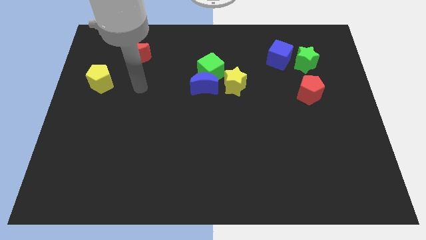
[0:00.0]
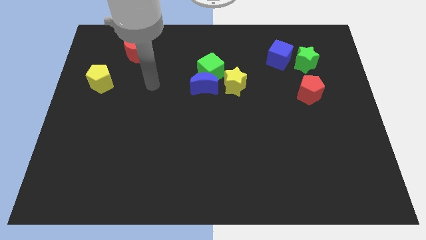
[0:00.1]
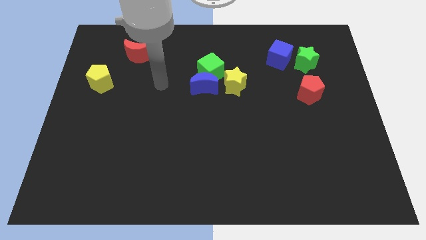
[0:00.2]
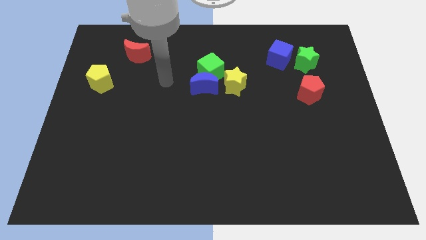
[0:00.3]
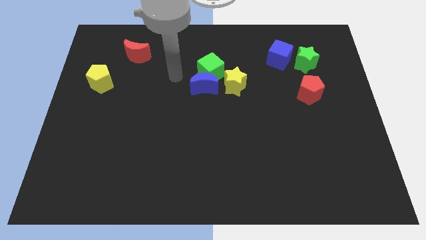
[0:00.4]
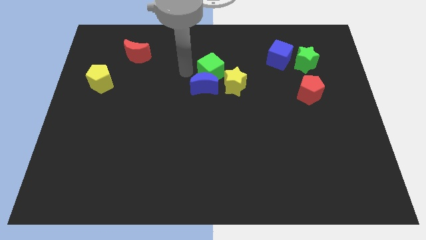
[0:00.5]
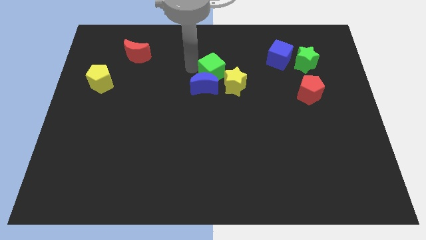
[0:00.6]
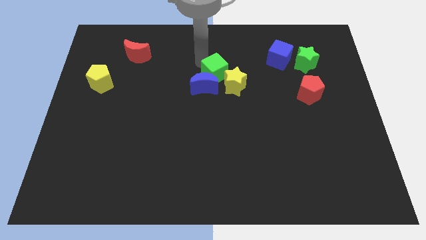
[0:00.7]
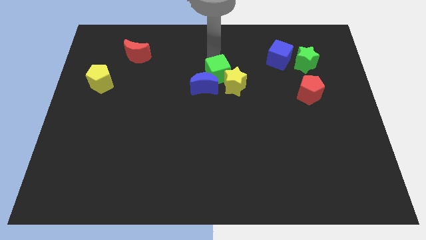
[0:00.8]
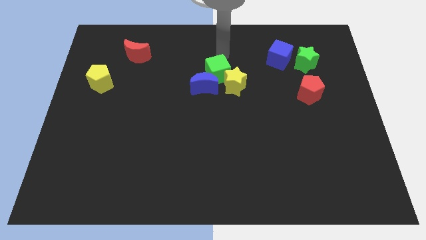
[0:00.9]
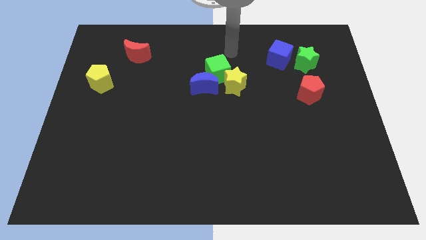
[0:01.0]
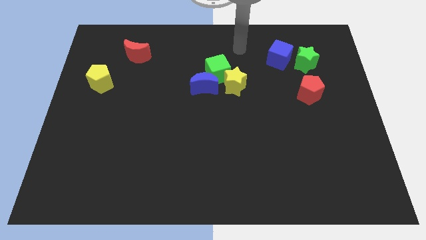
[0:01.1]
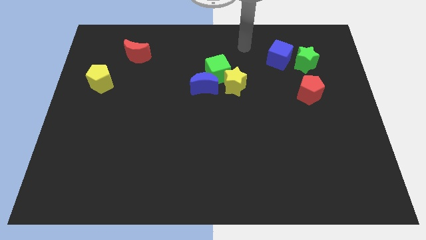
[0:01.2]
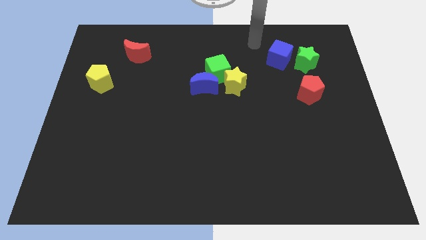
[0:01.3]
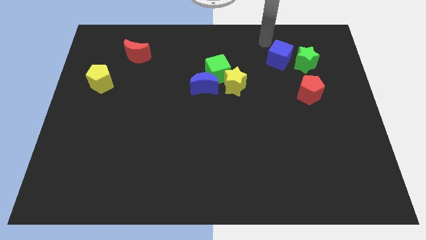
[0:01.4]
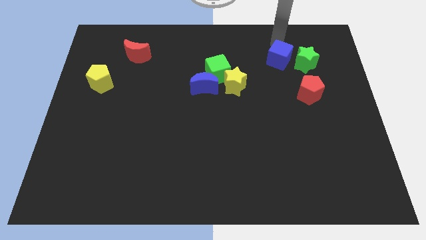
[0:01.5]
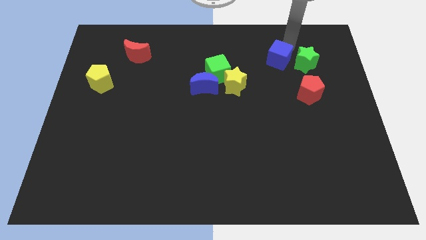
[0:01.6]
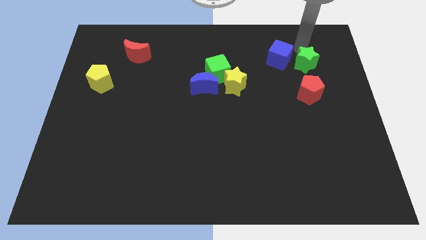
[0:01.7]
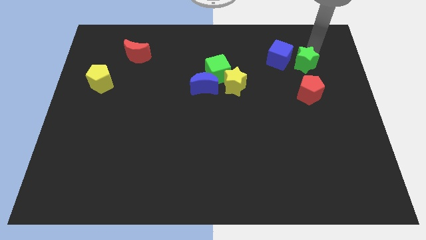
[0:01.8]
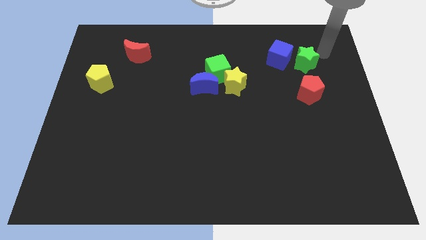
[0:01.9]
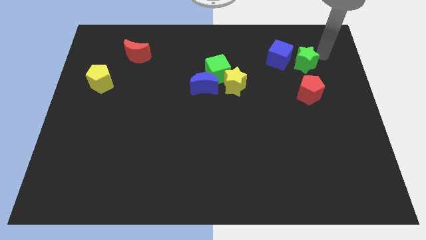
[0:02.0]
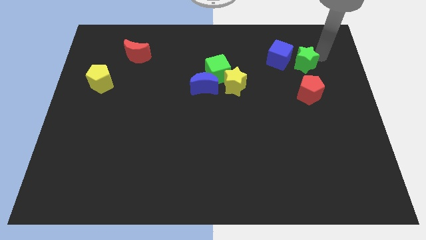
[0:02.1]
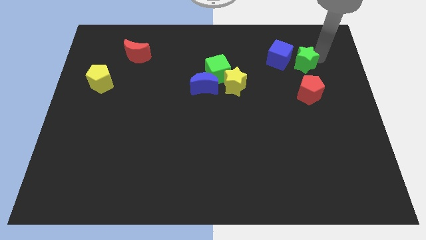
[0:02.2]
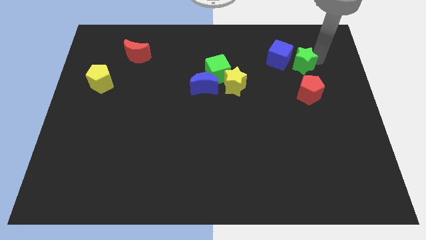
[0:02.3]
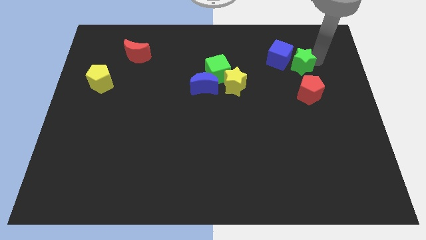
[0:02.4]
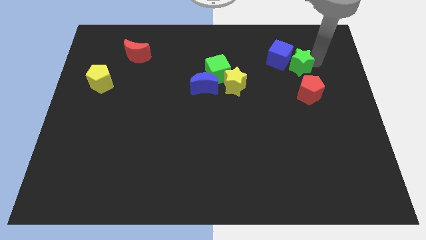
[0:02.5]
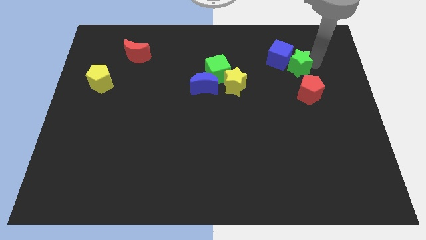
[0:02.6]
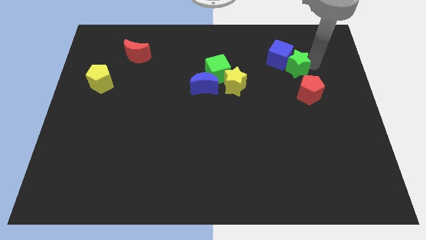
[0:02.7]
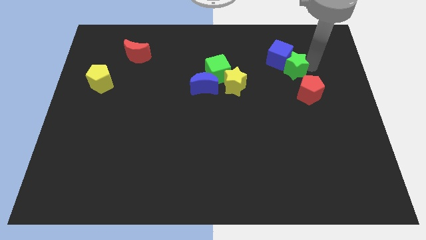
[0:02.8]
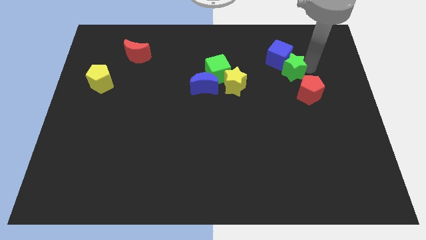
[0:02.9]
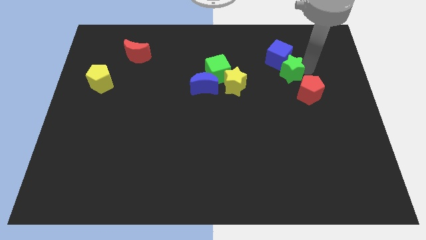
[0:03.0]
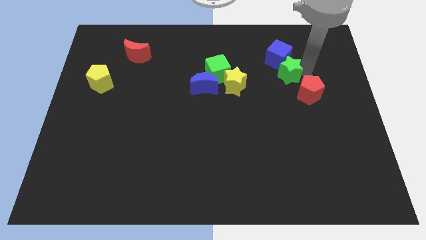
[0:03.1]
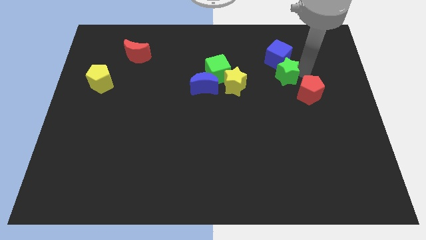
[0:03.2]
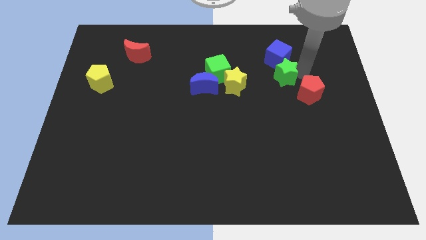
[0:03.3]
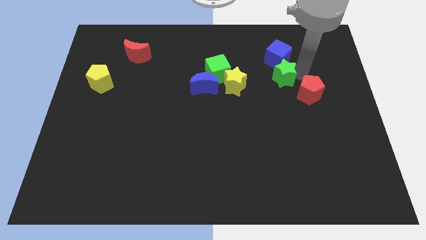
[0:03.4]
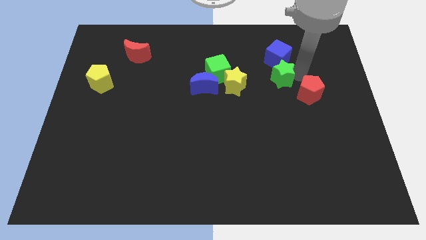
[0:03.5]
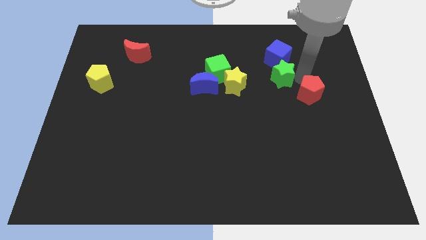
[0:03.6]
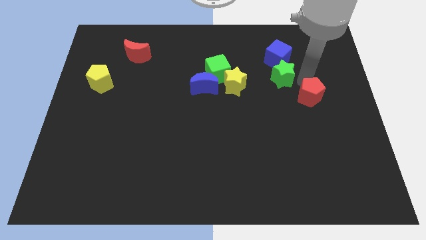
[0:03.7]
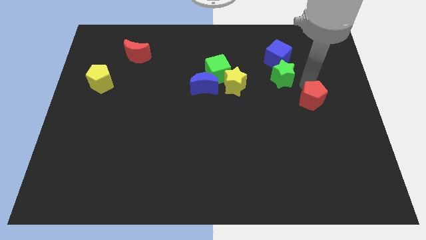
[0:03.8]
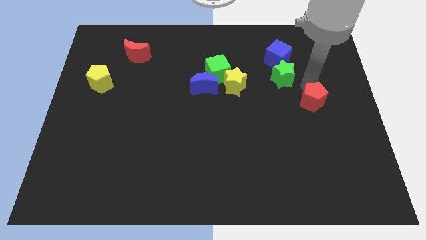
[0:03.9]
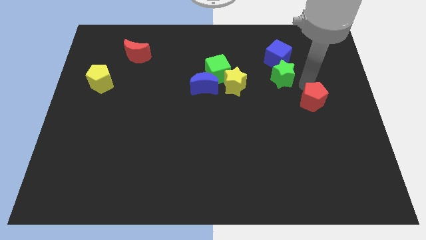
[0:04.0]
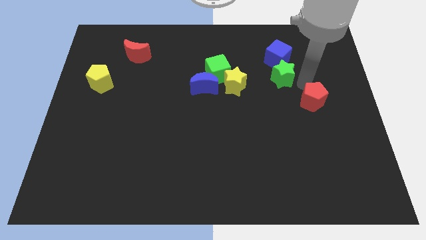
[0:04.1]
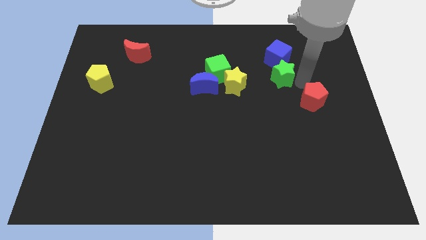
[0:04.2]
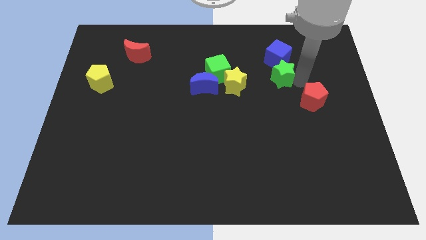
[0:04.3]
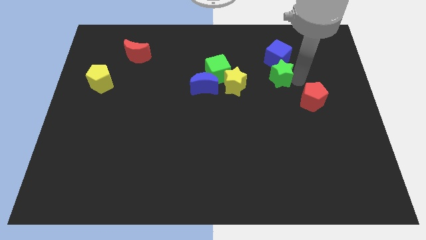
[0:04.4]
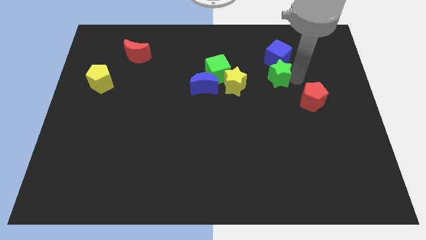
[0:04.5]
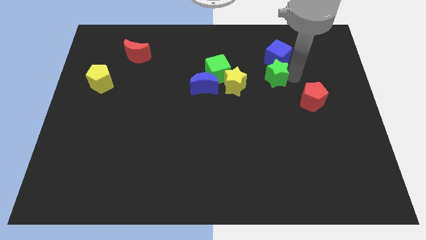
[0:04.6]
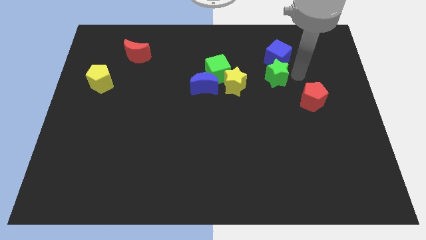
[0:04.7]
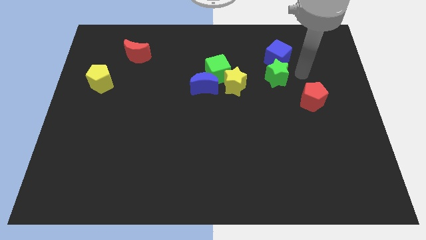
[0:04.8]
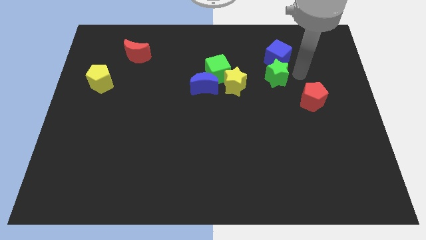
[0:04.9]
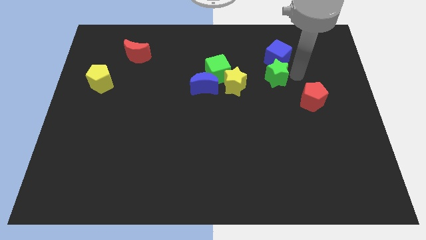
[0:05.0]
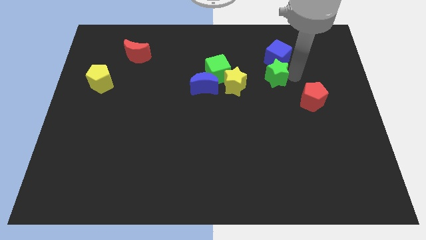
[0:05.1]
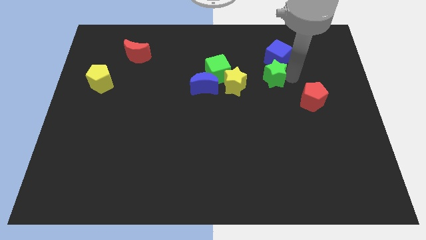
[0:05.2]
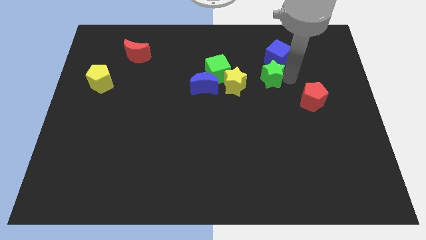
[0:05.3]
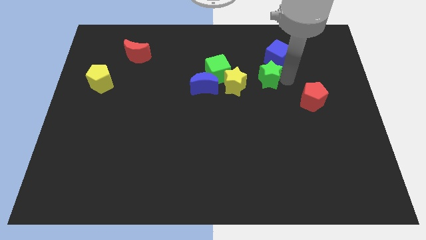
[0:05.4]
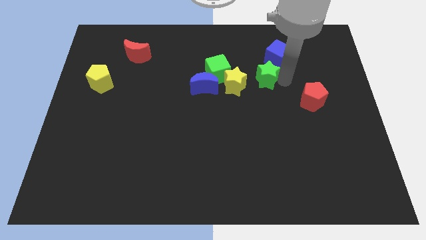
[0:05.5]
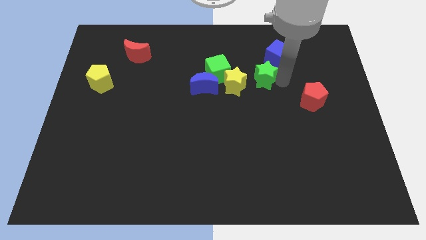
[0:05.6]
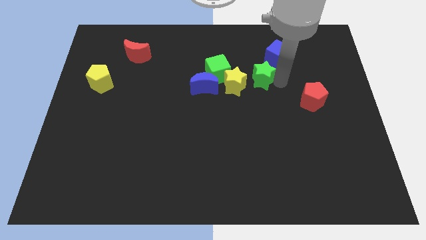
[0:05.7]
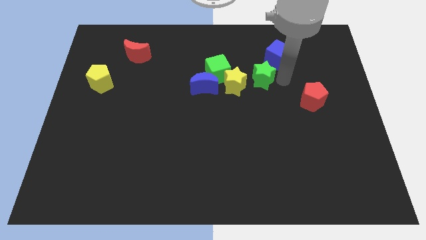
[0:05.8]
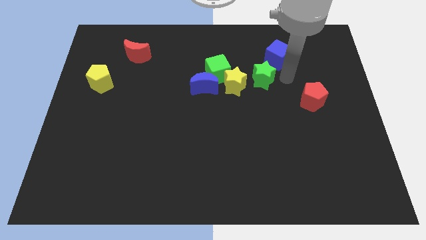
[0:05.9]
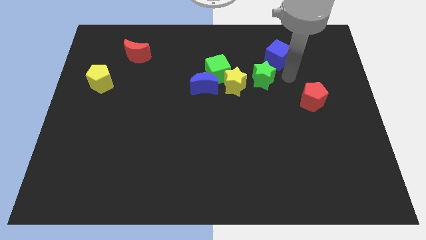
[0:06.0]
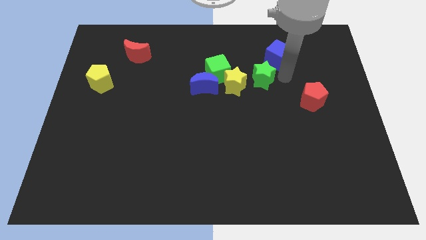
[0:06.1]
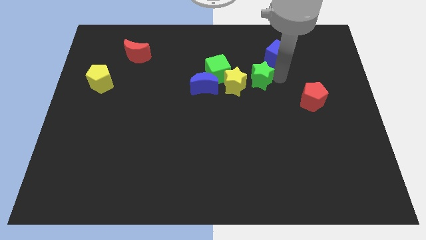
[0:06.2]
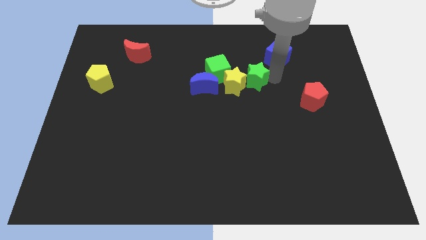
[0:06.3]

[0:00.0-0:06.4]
slide the green star next to the yellow star

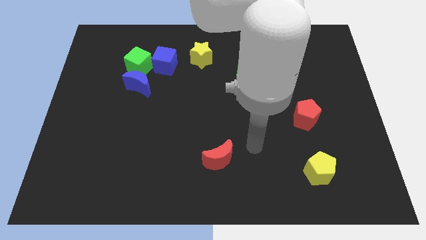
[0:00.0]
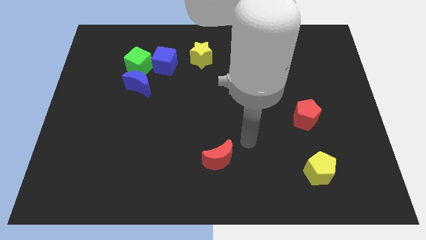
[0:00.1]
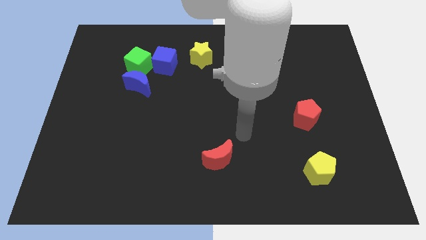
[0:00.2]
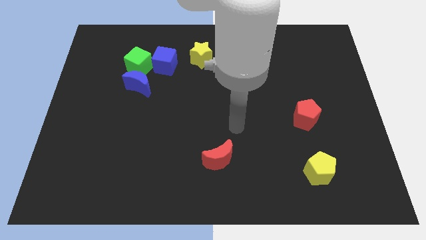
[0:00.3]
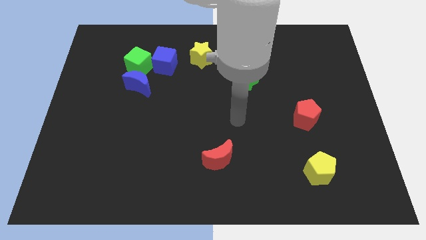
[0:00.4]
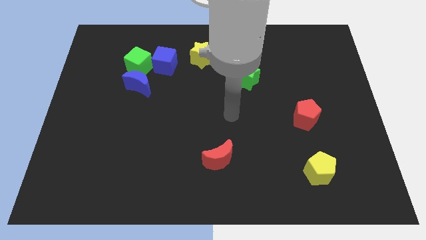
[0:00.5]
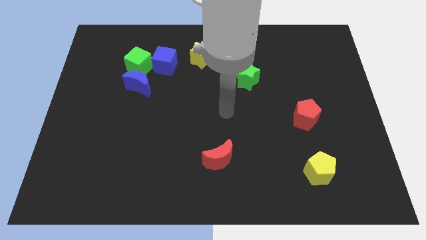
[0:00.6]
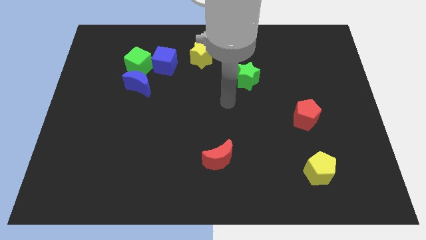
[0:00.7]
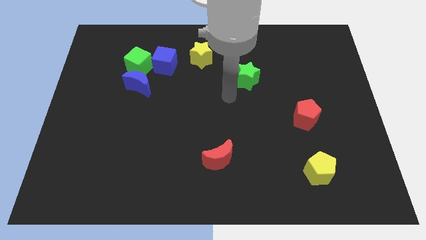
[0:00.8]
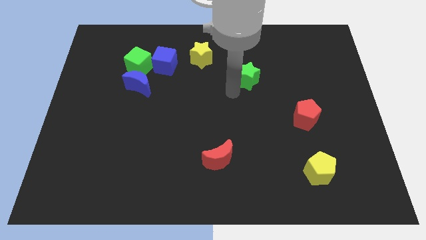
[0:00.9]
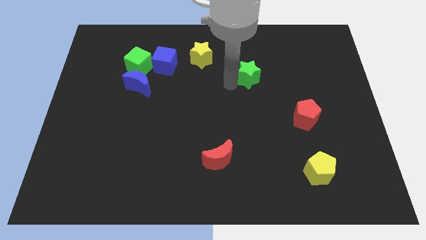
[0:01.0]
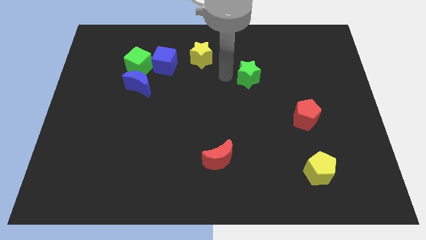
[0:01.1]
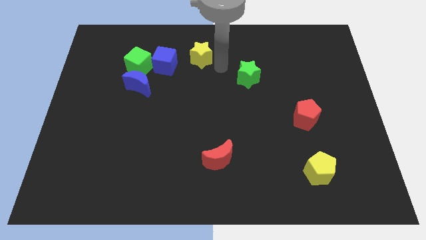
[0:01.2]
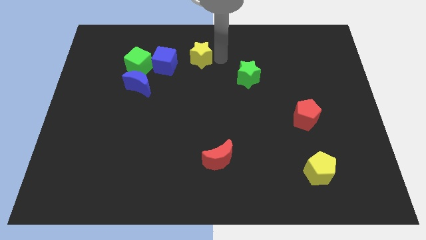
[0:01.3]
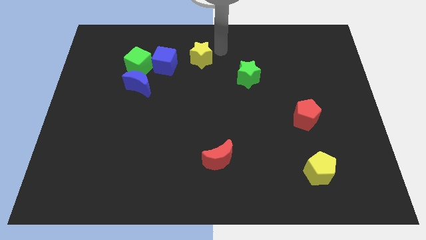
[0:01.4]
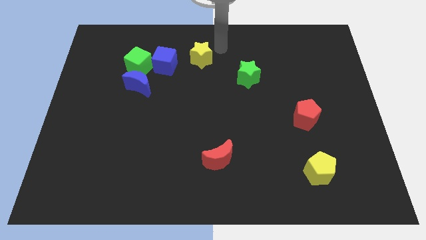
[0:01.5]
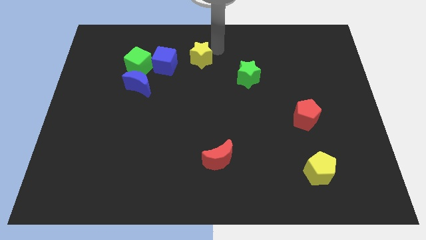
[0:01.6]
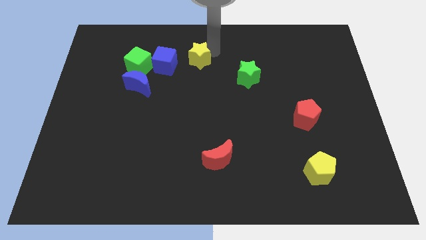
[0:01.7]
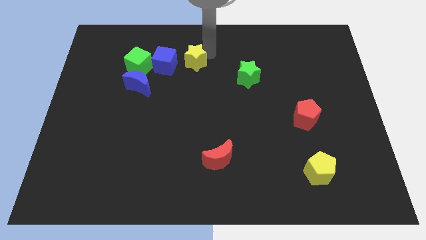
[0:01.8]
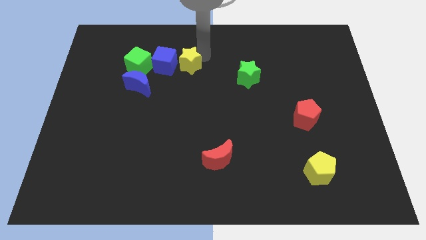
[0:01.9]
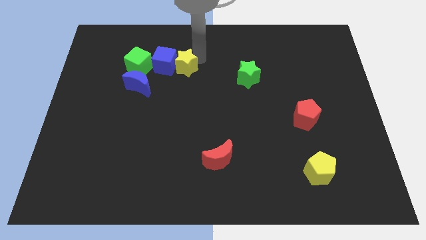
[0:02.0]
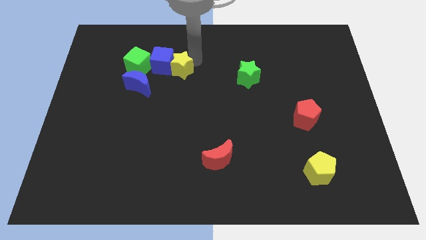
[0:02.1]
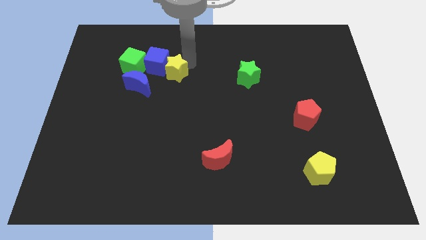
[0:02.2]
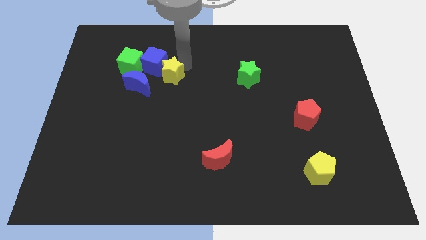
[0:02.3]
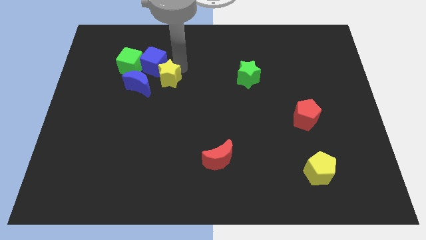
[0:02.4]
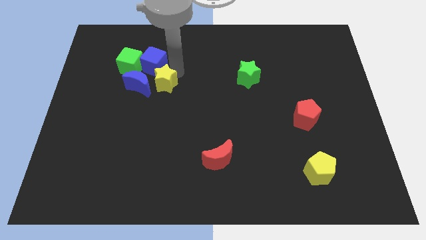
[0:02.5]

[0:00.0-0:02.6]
push the yellow star to the blue moon
